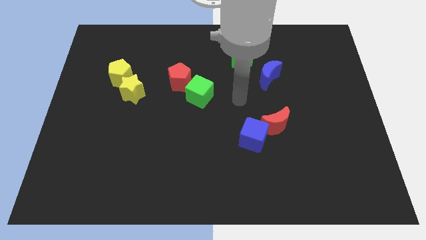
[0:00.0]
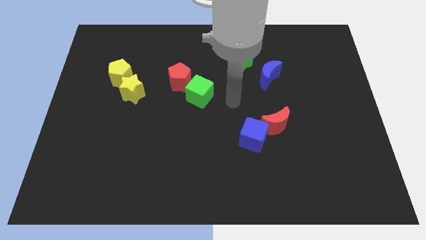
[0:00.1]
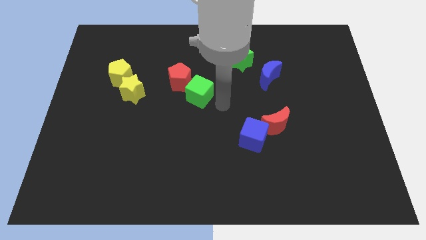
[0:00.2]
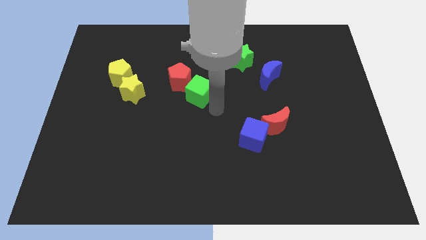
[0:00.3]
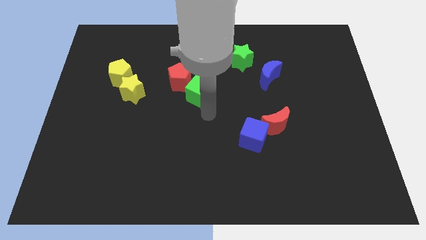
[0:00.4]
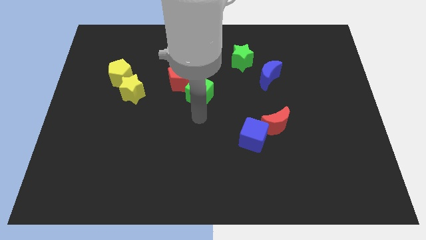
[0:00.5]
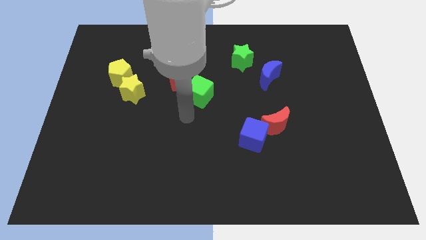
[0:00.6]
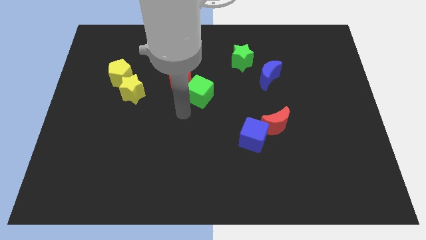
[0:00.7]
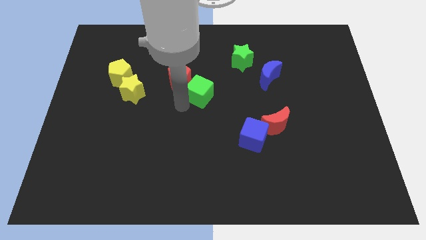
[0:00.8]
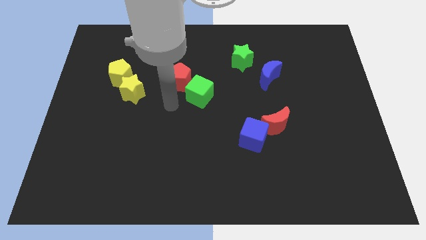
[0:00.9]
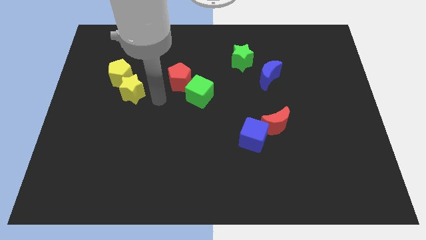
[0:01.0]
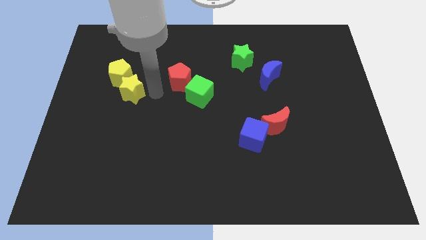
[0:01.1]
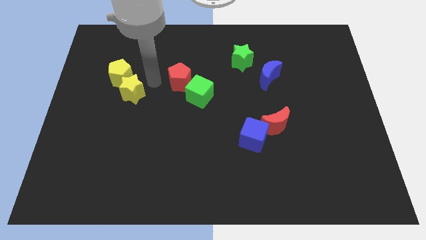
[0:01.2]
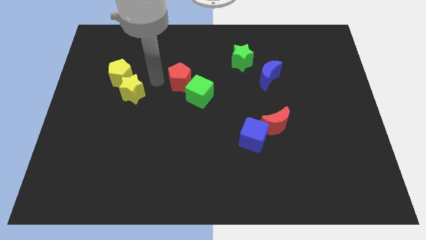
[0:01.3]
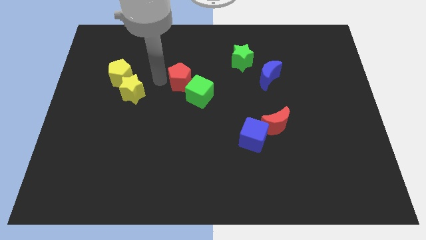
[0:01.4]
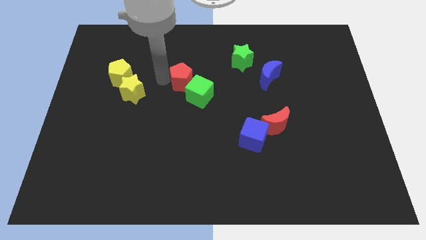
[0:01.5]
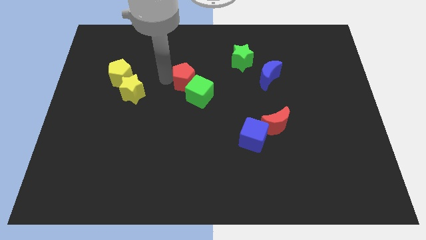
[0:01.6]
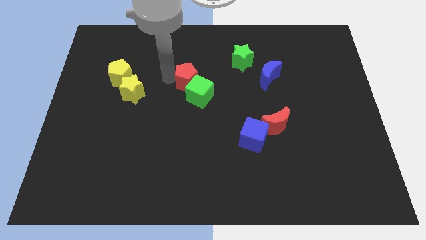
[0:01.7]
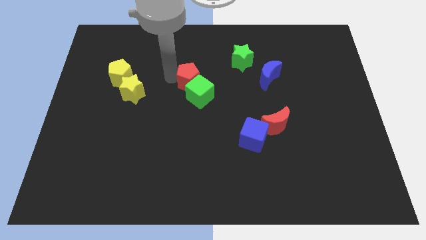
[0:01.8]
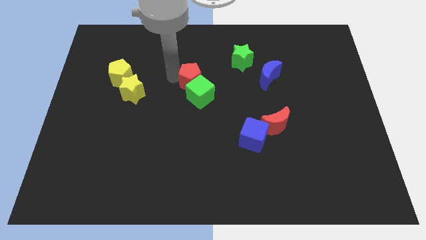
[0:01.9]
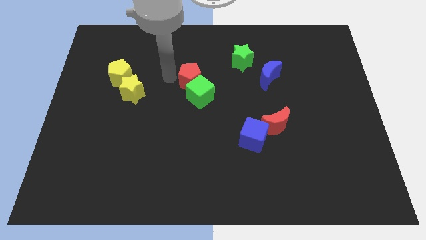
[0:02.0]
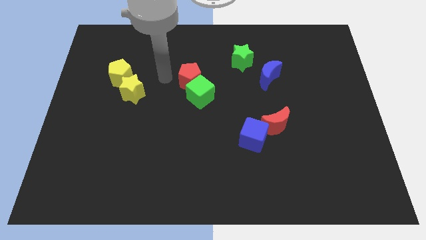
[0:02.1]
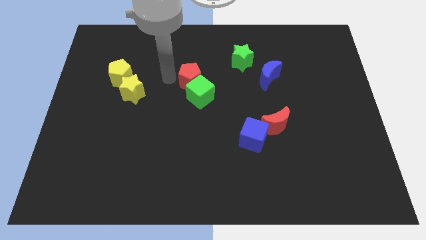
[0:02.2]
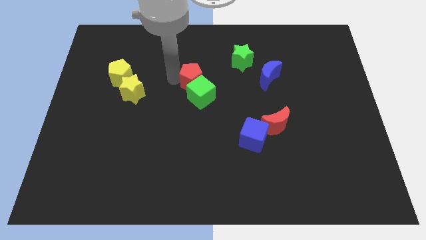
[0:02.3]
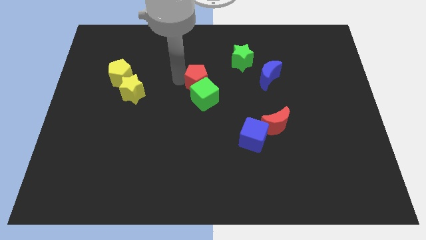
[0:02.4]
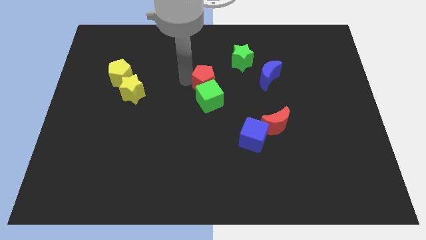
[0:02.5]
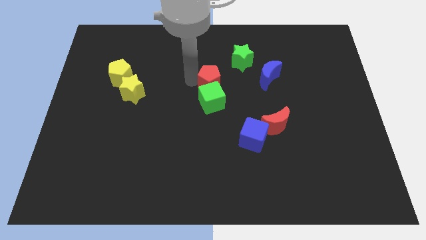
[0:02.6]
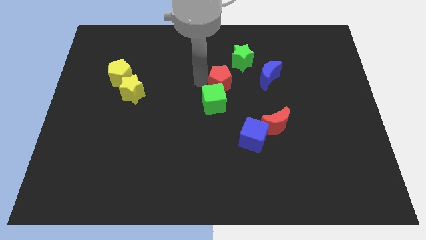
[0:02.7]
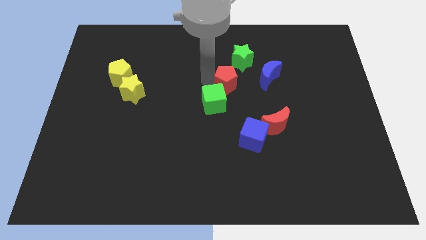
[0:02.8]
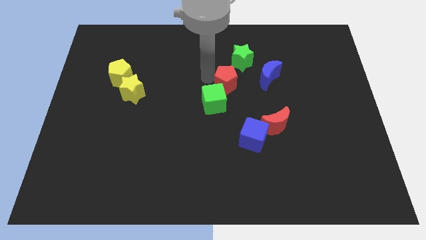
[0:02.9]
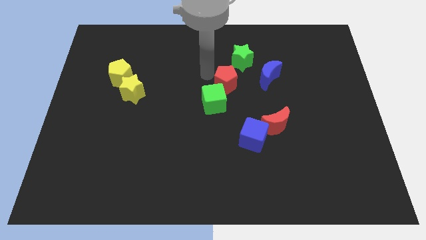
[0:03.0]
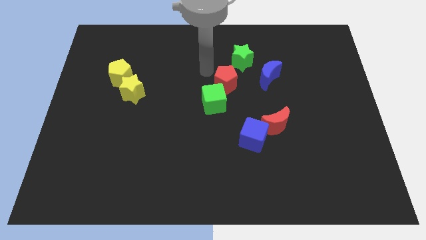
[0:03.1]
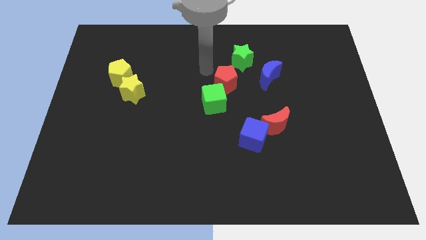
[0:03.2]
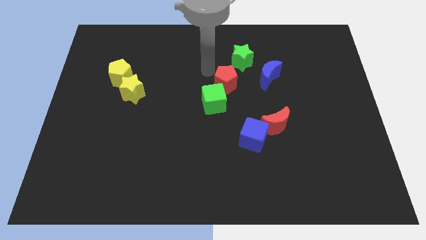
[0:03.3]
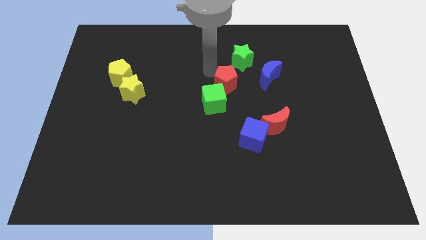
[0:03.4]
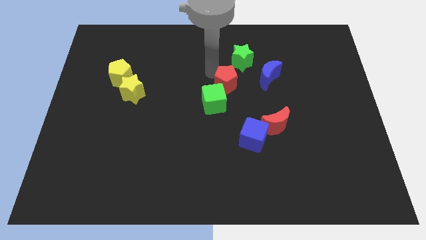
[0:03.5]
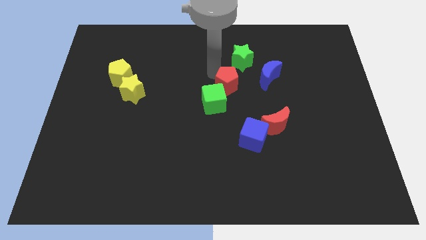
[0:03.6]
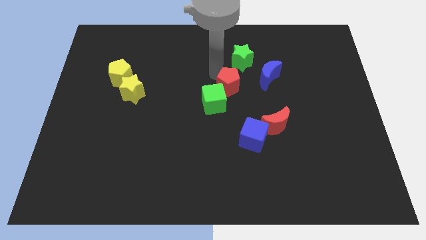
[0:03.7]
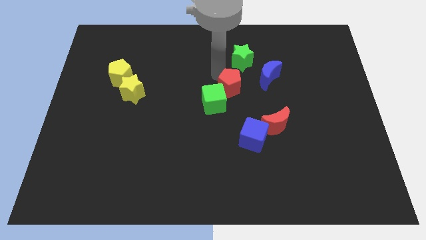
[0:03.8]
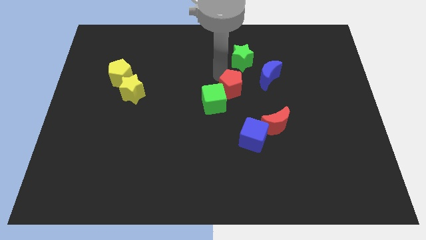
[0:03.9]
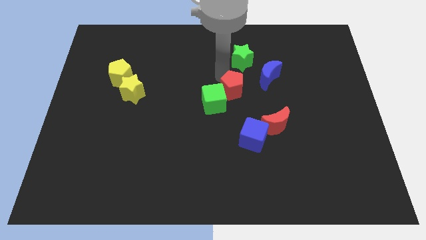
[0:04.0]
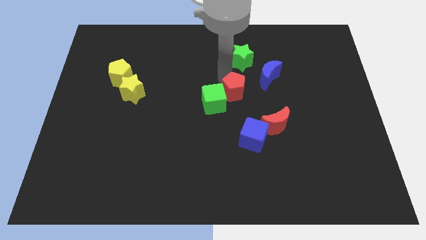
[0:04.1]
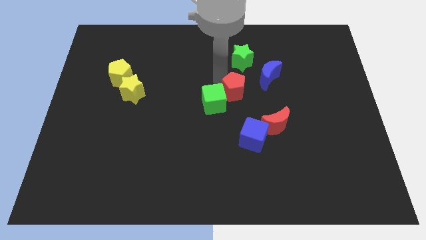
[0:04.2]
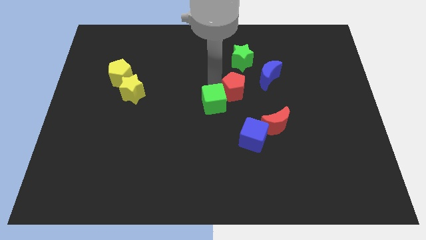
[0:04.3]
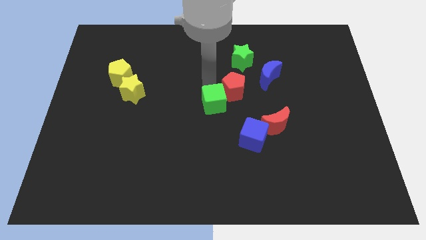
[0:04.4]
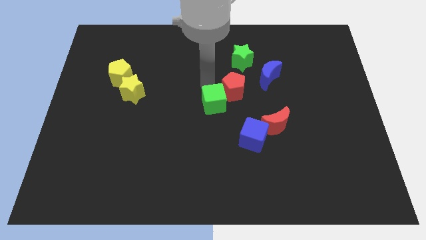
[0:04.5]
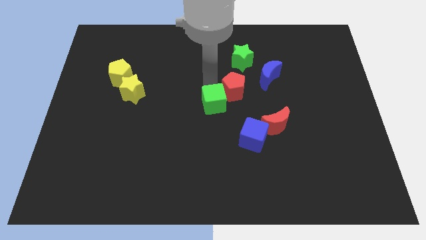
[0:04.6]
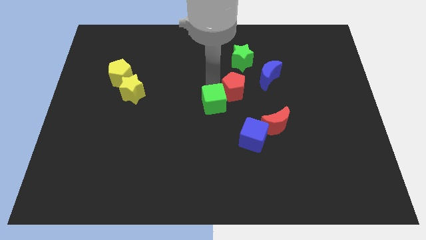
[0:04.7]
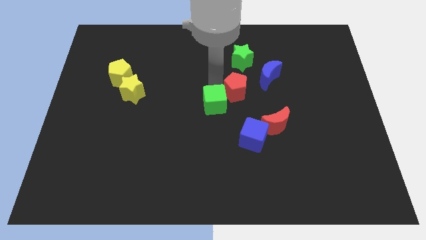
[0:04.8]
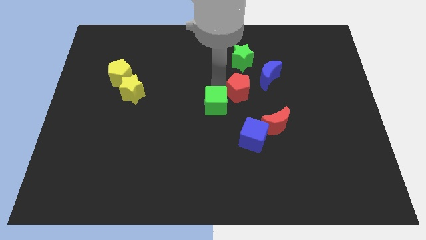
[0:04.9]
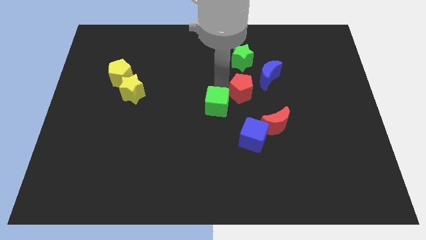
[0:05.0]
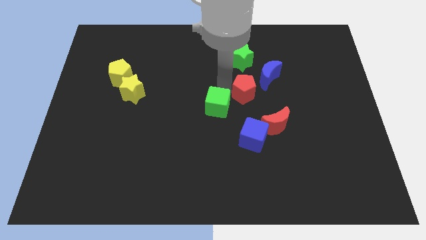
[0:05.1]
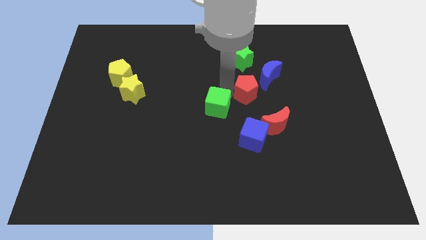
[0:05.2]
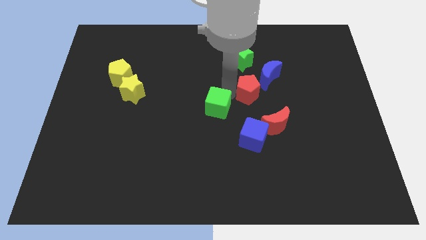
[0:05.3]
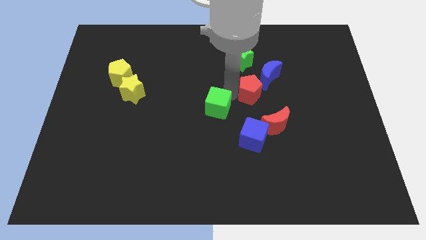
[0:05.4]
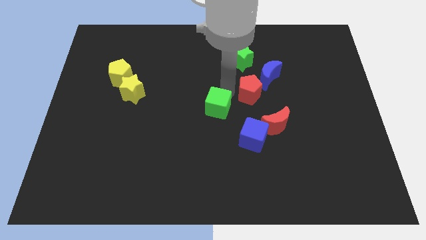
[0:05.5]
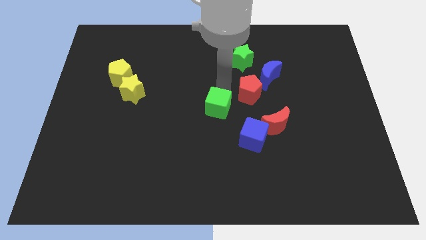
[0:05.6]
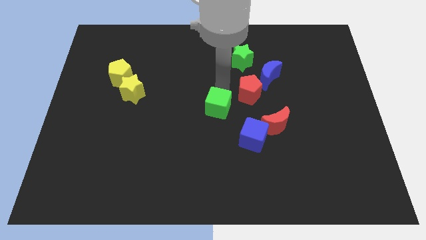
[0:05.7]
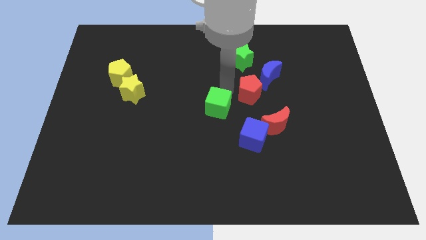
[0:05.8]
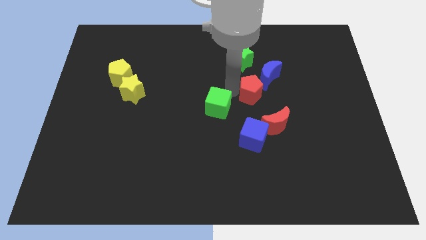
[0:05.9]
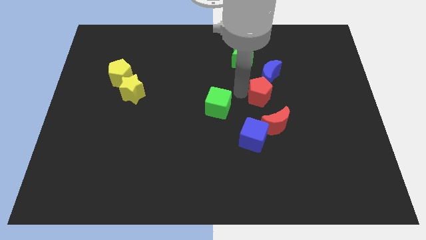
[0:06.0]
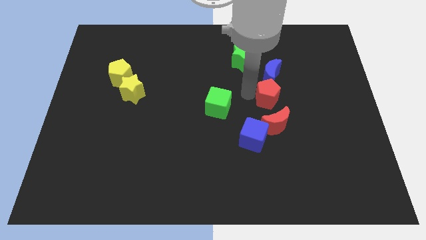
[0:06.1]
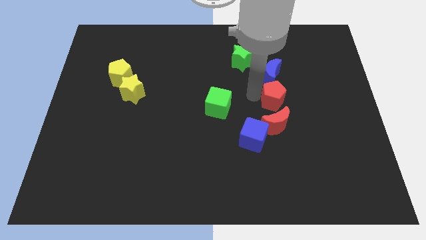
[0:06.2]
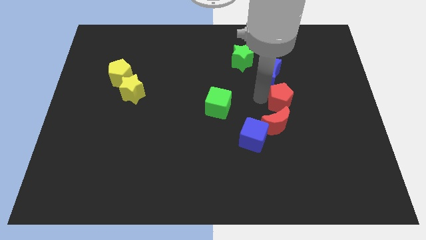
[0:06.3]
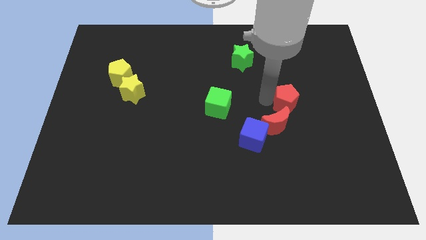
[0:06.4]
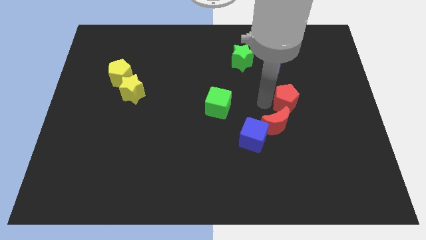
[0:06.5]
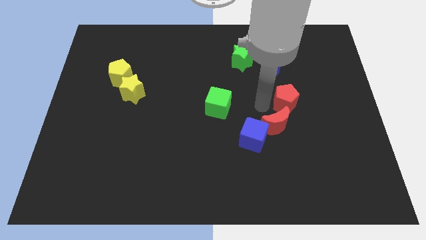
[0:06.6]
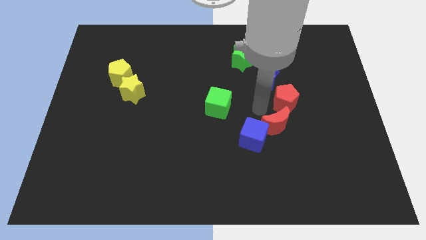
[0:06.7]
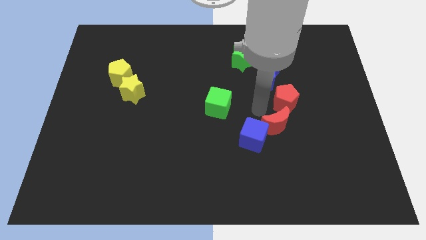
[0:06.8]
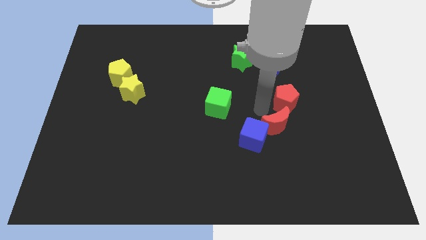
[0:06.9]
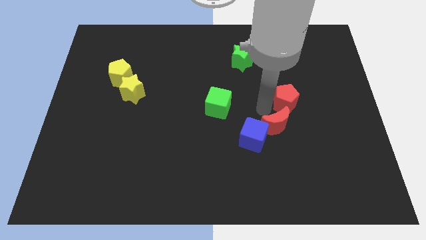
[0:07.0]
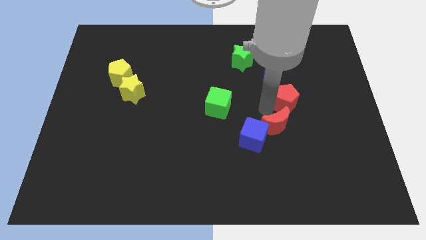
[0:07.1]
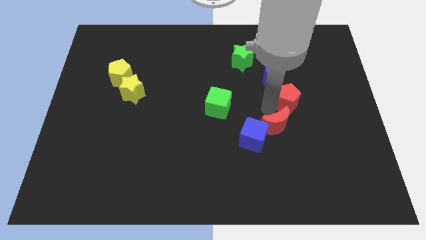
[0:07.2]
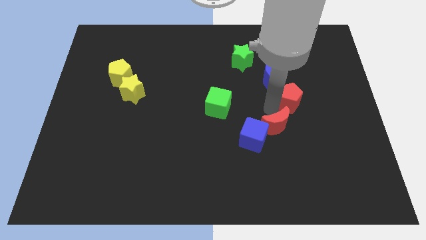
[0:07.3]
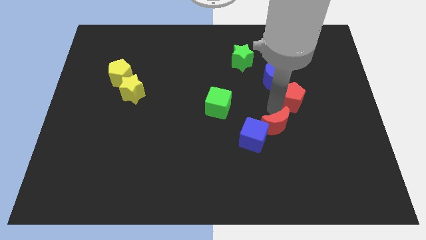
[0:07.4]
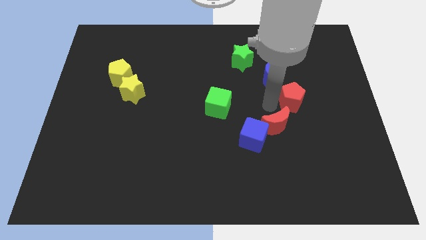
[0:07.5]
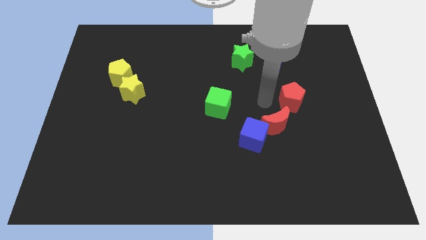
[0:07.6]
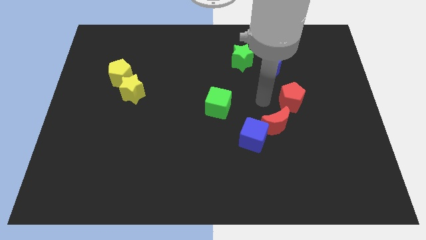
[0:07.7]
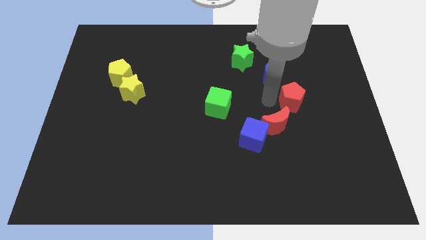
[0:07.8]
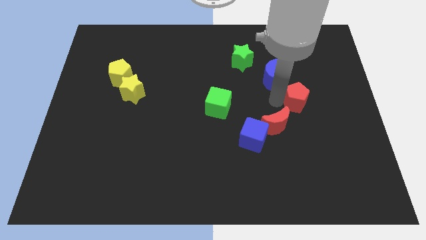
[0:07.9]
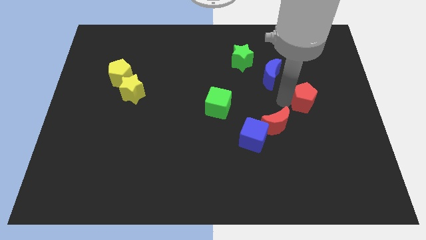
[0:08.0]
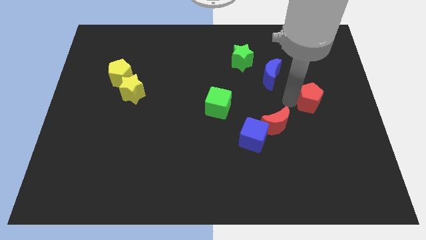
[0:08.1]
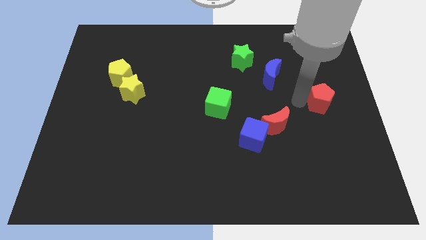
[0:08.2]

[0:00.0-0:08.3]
move the red pentagon to the center right
